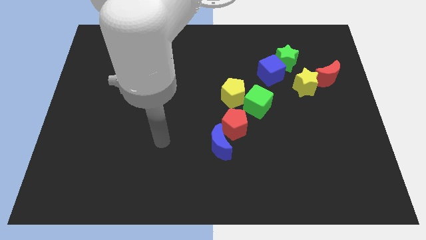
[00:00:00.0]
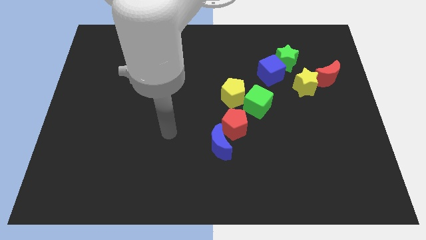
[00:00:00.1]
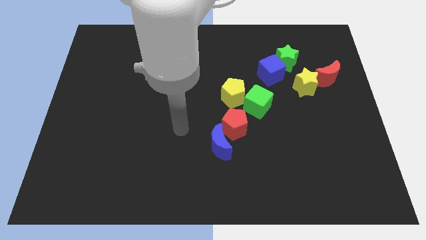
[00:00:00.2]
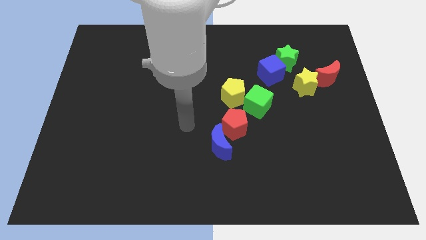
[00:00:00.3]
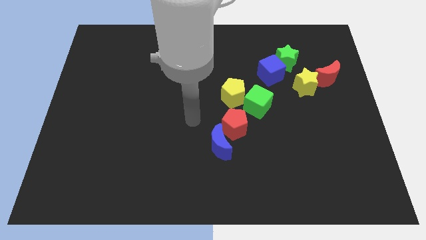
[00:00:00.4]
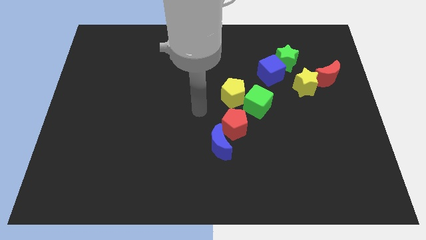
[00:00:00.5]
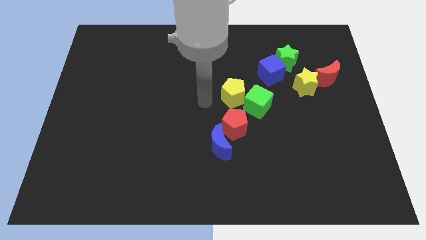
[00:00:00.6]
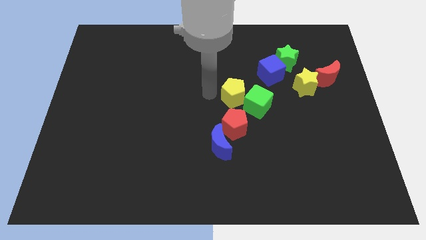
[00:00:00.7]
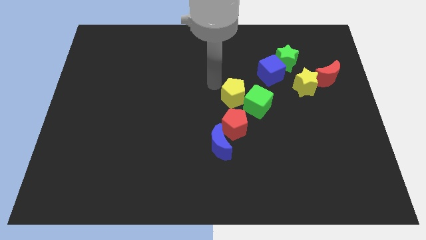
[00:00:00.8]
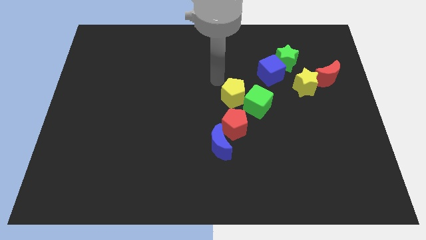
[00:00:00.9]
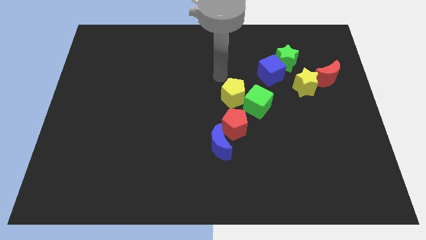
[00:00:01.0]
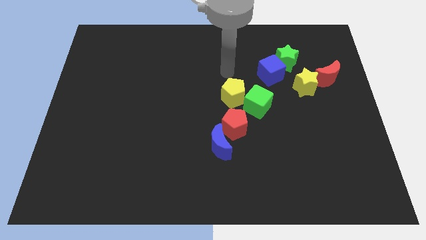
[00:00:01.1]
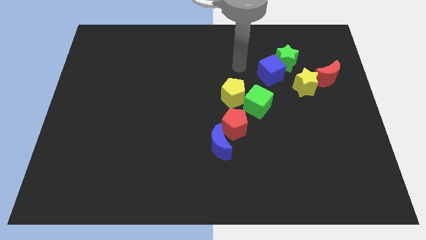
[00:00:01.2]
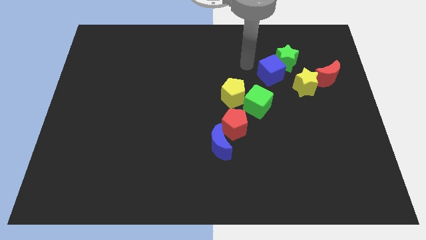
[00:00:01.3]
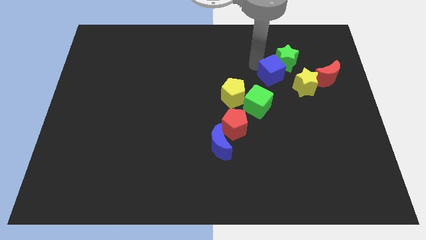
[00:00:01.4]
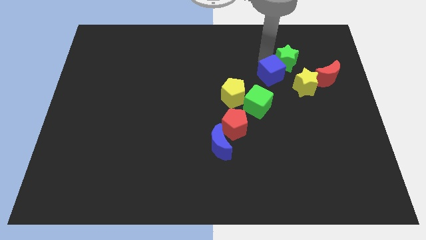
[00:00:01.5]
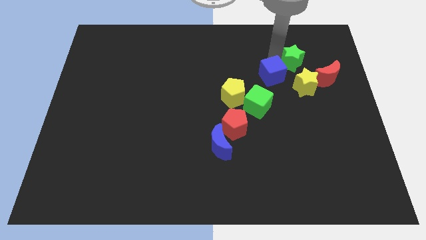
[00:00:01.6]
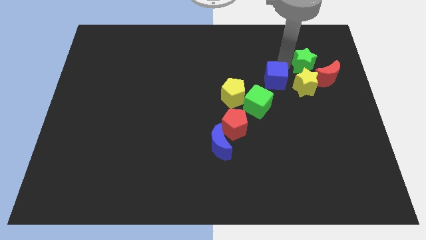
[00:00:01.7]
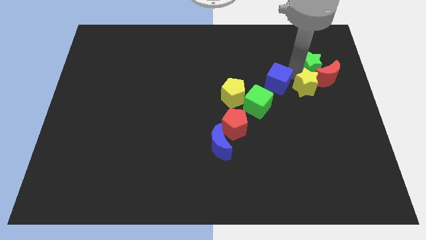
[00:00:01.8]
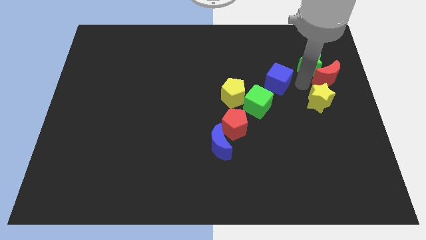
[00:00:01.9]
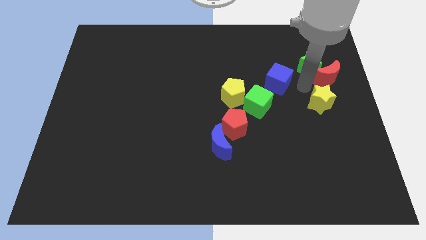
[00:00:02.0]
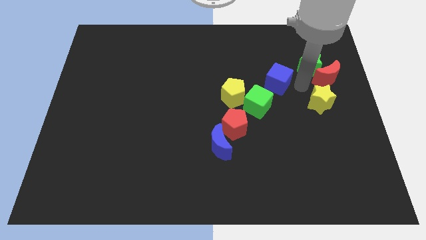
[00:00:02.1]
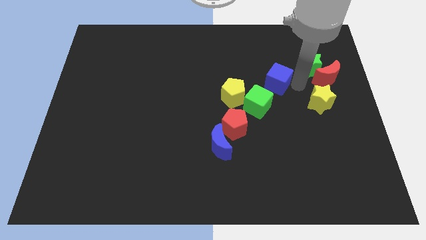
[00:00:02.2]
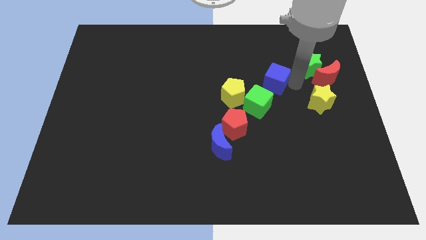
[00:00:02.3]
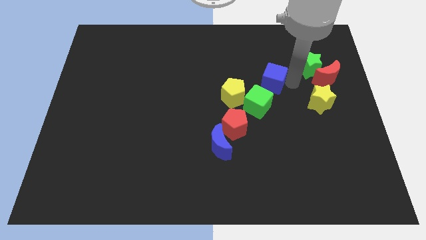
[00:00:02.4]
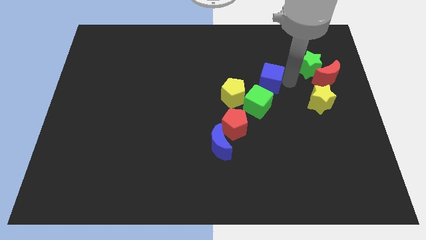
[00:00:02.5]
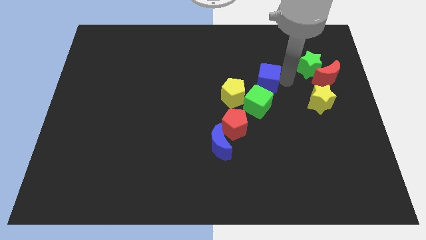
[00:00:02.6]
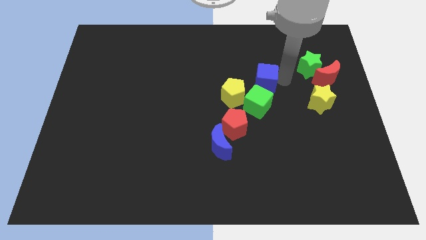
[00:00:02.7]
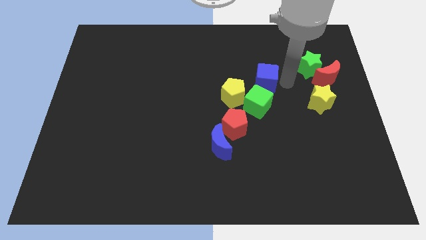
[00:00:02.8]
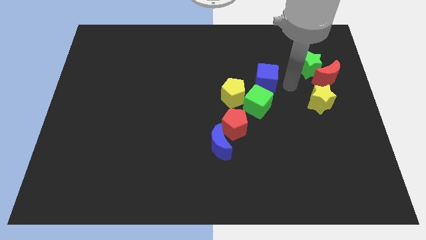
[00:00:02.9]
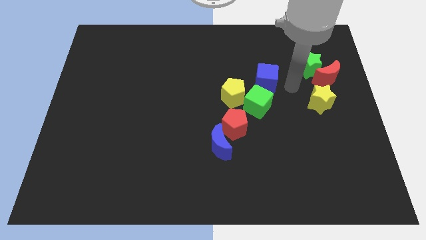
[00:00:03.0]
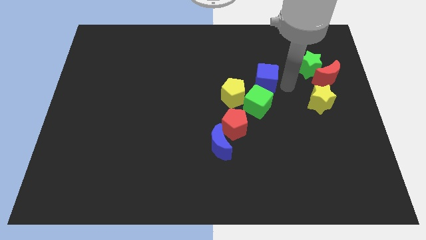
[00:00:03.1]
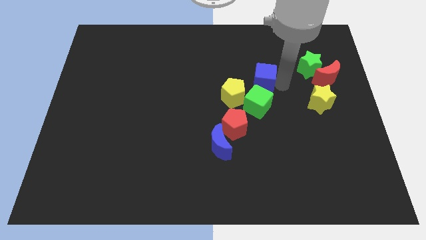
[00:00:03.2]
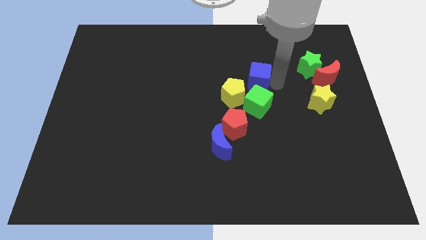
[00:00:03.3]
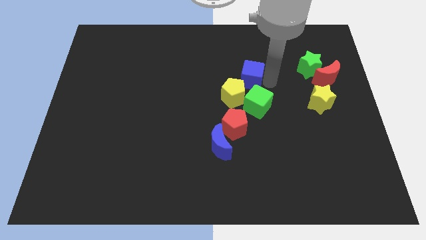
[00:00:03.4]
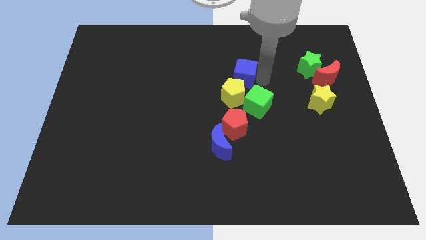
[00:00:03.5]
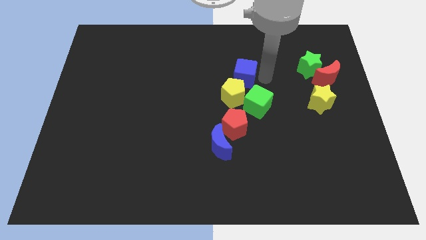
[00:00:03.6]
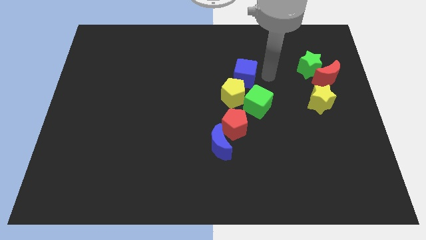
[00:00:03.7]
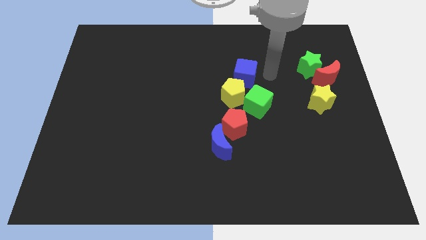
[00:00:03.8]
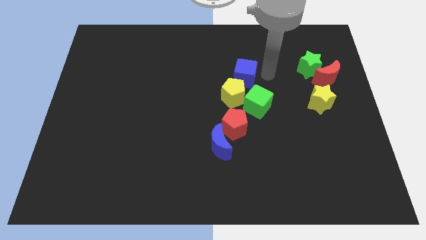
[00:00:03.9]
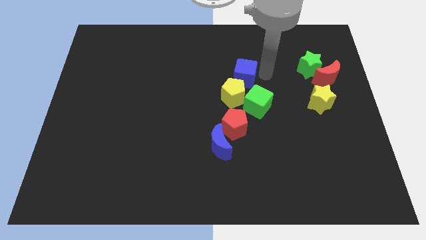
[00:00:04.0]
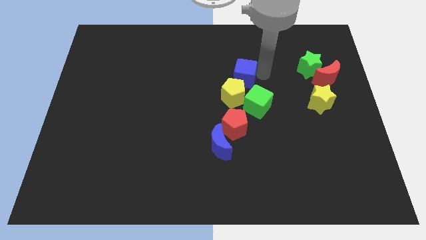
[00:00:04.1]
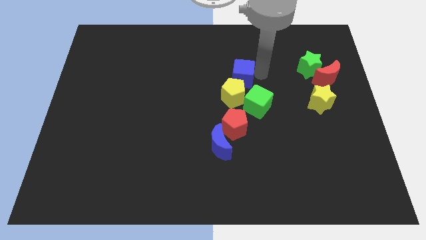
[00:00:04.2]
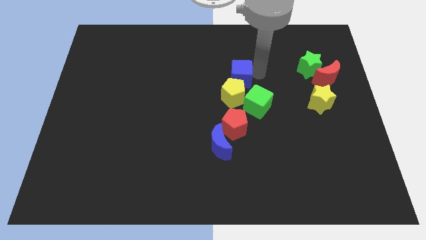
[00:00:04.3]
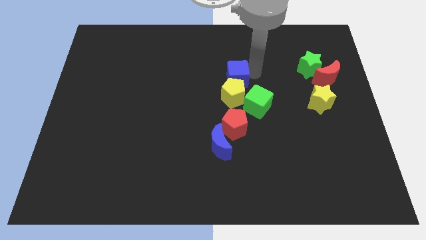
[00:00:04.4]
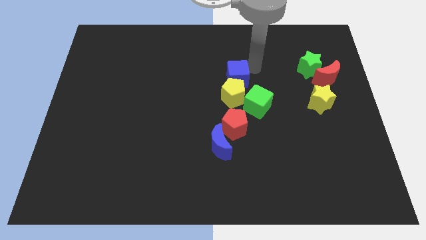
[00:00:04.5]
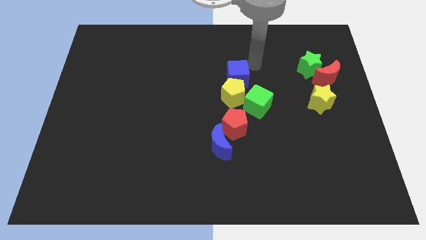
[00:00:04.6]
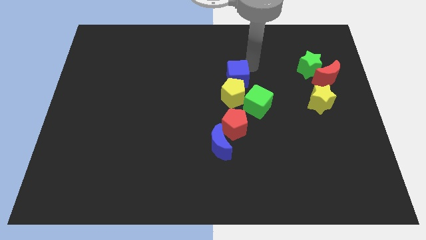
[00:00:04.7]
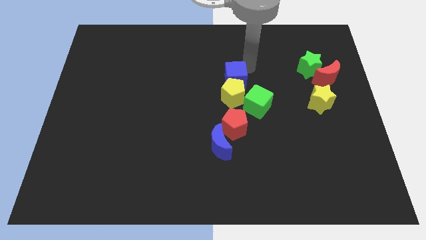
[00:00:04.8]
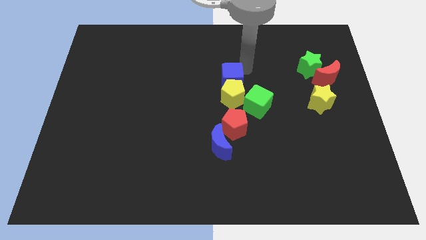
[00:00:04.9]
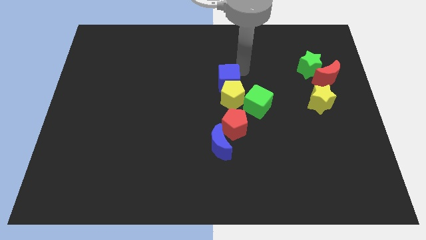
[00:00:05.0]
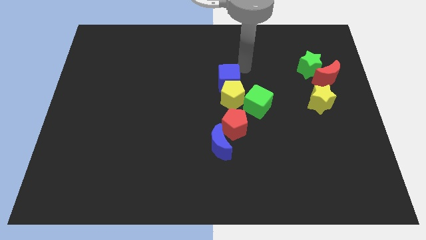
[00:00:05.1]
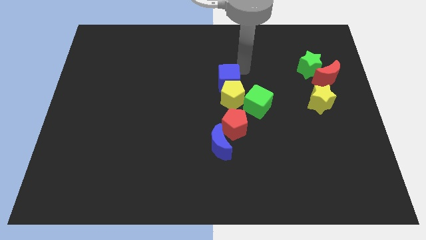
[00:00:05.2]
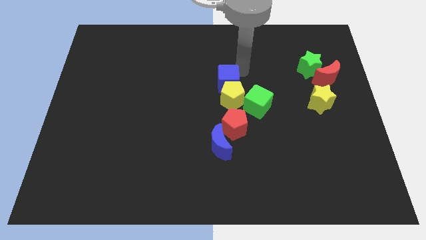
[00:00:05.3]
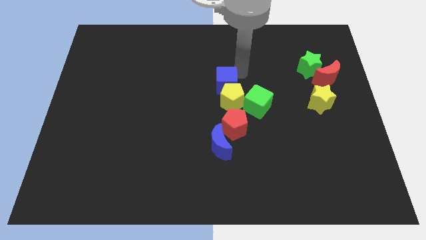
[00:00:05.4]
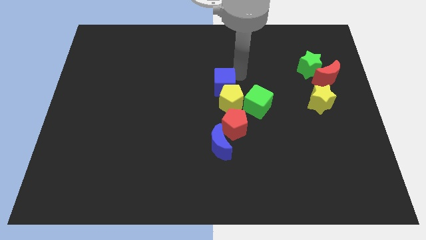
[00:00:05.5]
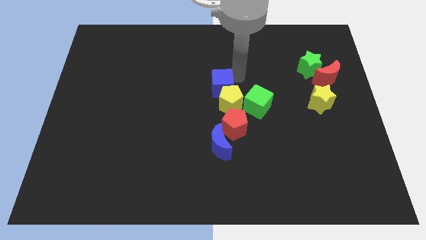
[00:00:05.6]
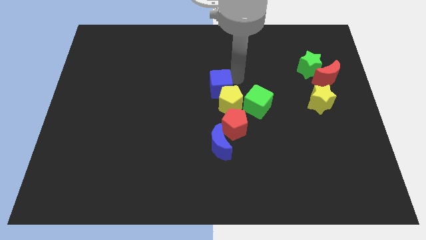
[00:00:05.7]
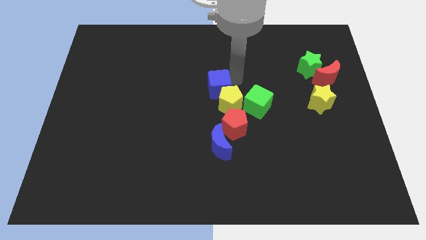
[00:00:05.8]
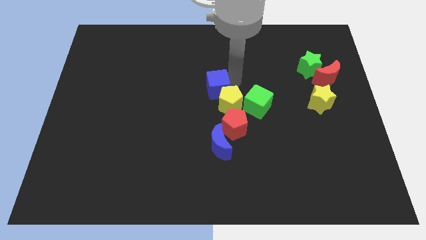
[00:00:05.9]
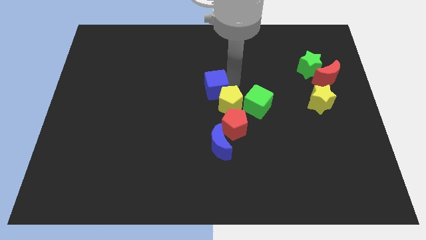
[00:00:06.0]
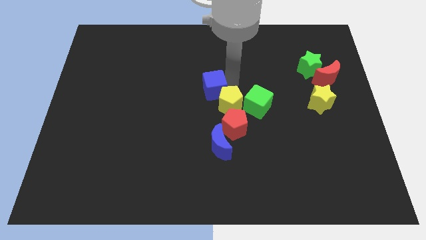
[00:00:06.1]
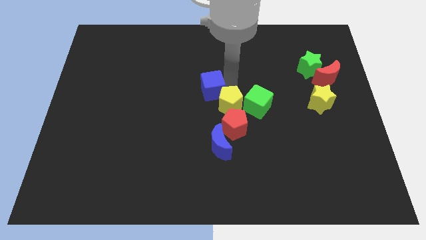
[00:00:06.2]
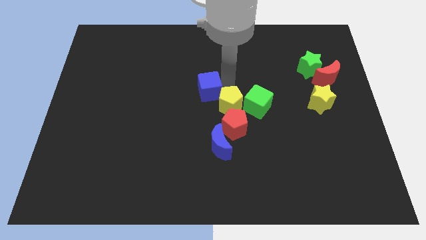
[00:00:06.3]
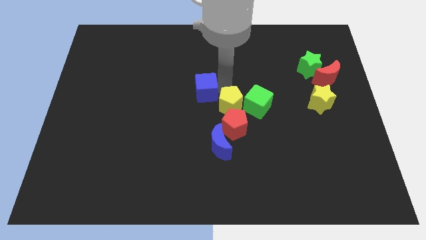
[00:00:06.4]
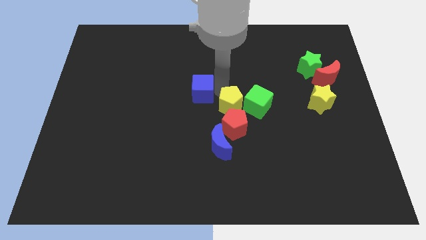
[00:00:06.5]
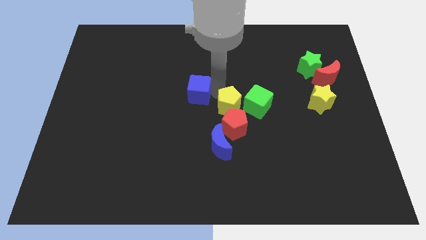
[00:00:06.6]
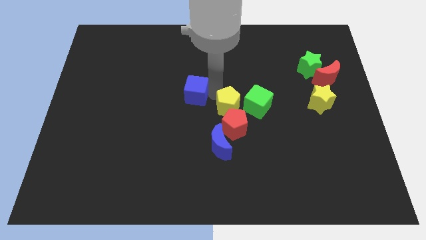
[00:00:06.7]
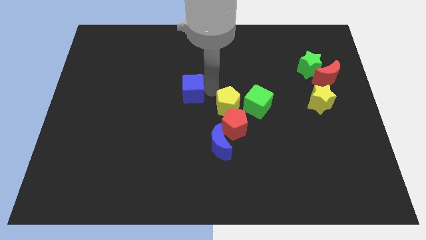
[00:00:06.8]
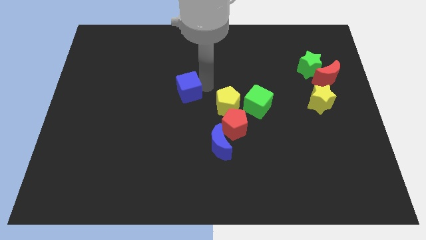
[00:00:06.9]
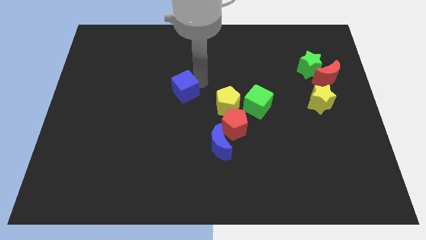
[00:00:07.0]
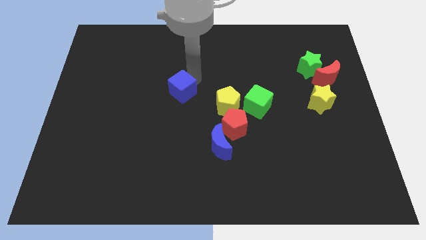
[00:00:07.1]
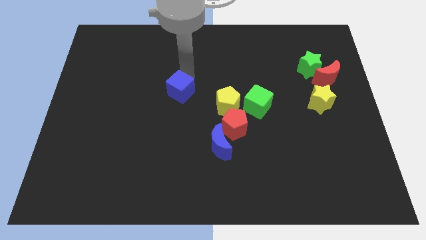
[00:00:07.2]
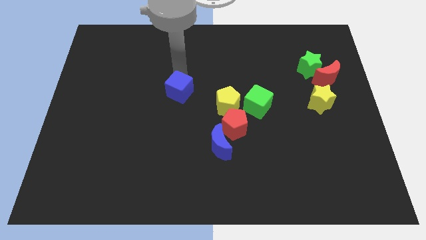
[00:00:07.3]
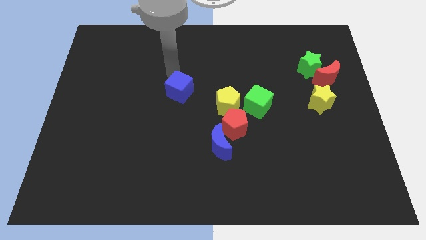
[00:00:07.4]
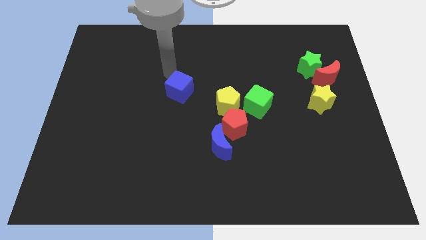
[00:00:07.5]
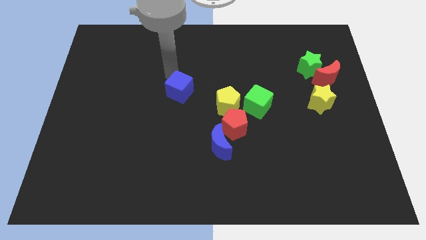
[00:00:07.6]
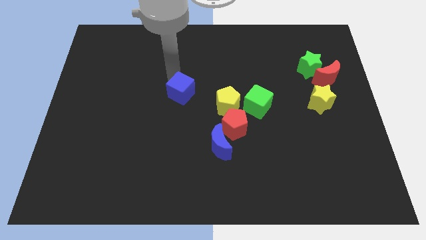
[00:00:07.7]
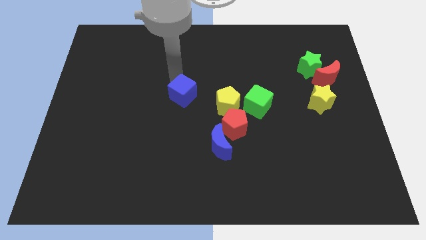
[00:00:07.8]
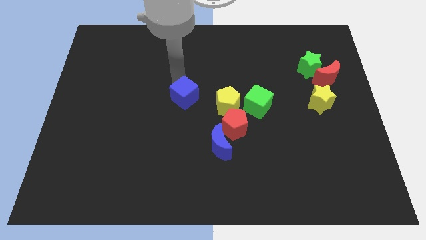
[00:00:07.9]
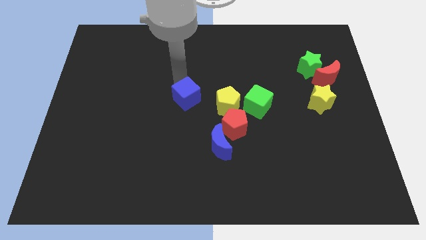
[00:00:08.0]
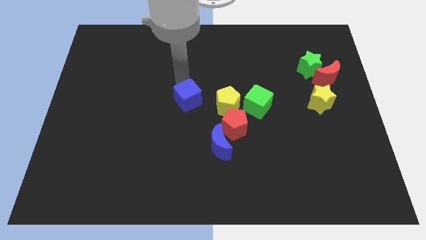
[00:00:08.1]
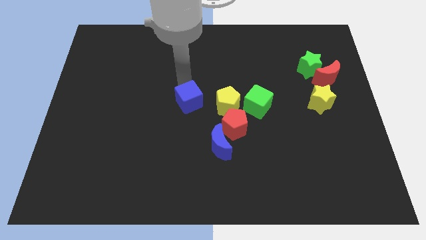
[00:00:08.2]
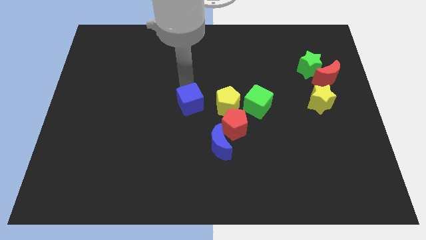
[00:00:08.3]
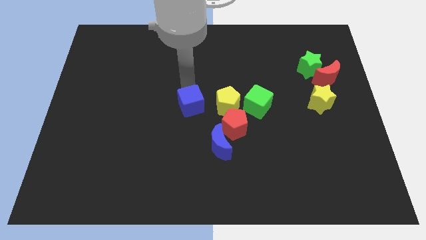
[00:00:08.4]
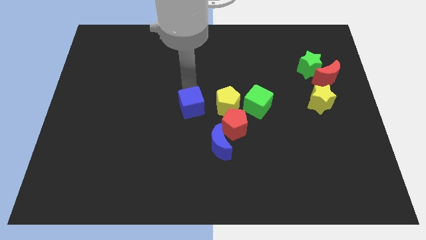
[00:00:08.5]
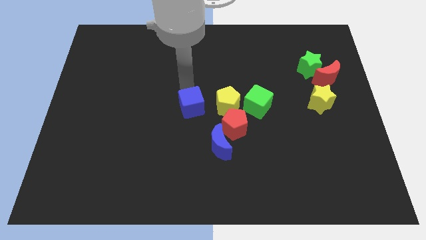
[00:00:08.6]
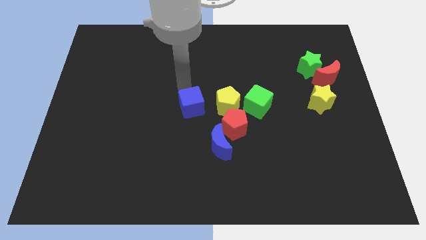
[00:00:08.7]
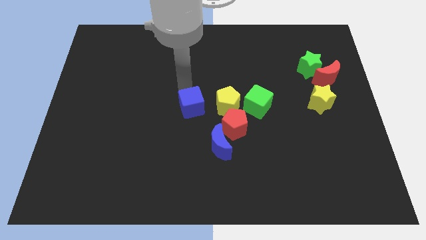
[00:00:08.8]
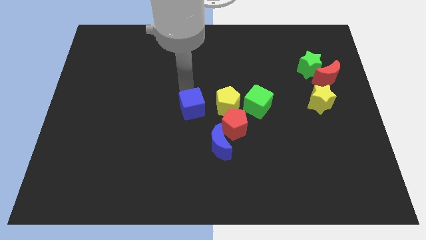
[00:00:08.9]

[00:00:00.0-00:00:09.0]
push the blue cube downwards and to the left
